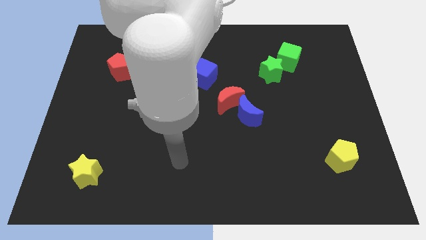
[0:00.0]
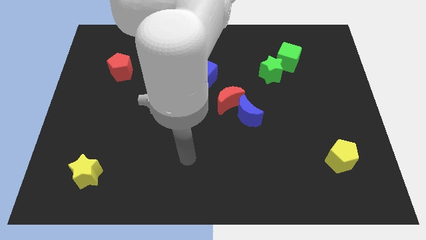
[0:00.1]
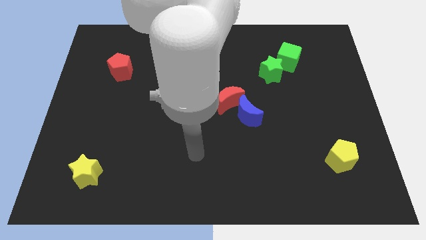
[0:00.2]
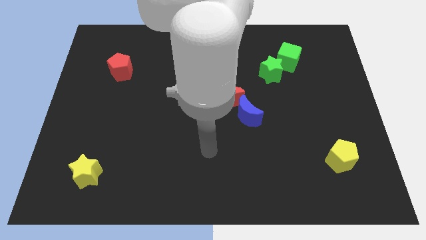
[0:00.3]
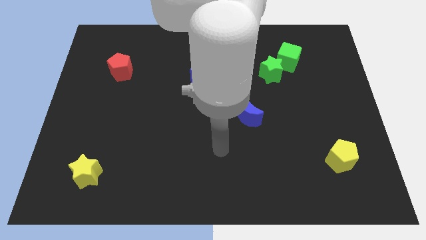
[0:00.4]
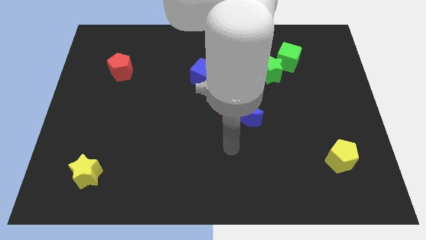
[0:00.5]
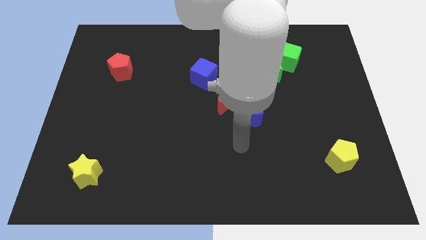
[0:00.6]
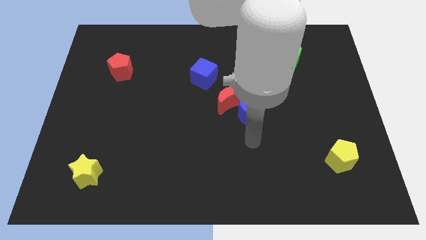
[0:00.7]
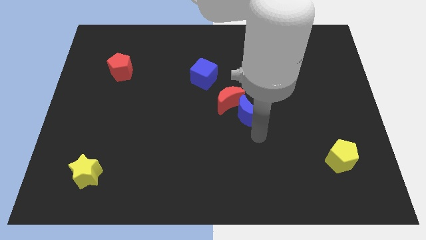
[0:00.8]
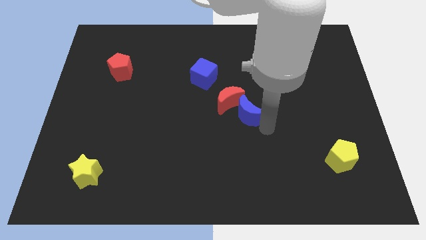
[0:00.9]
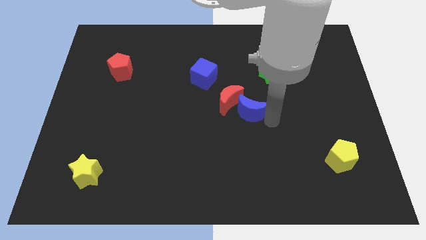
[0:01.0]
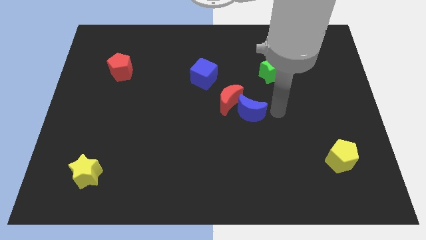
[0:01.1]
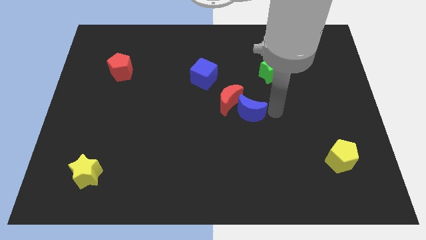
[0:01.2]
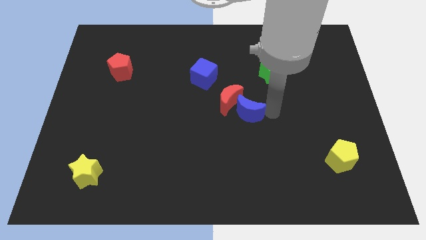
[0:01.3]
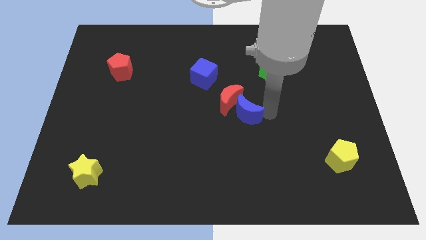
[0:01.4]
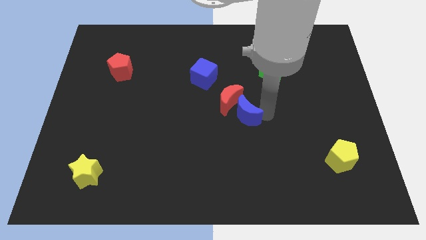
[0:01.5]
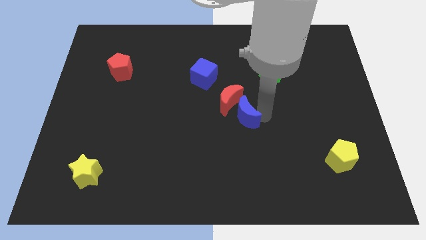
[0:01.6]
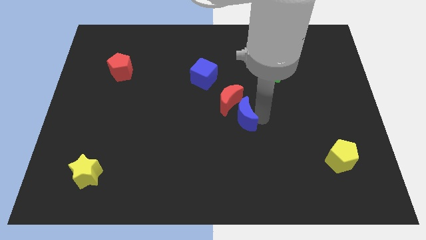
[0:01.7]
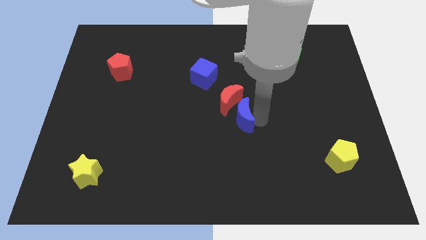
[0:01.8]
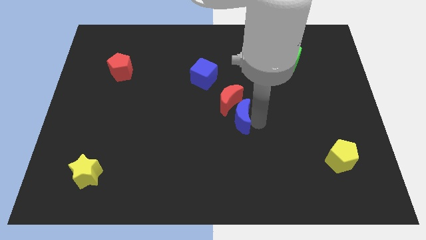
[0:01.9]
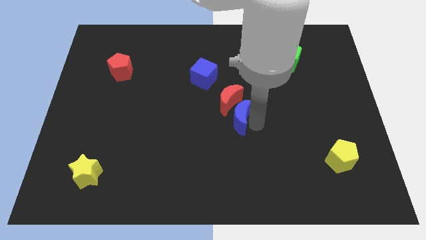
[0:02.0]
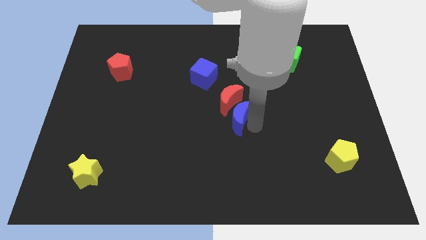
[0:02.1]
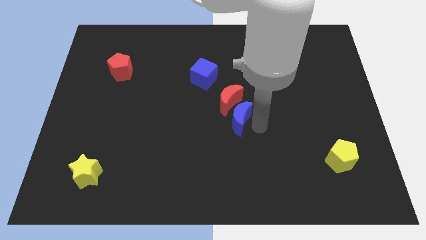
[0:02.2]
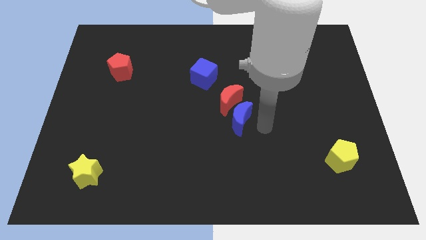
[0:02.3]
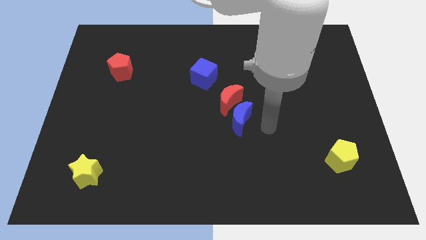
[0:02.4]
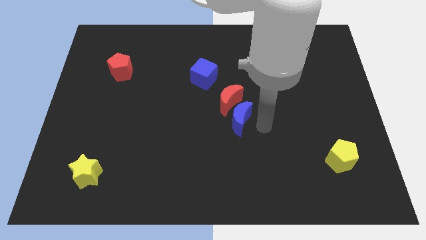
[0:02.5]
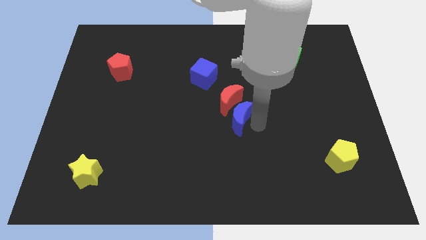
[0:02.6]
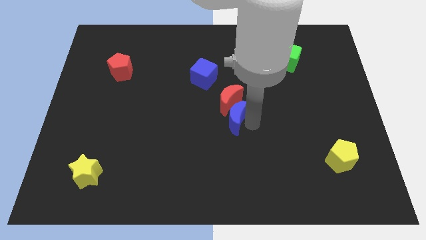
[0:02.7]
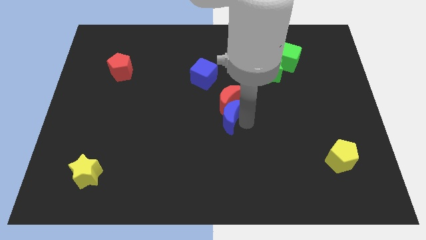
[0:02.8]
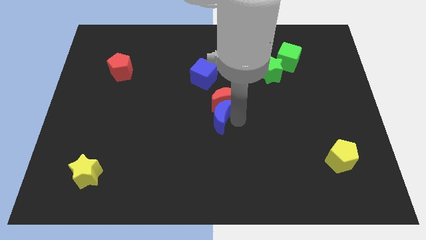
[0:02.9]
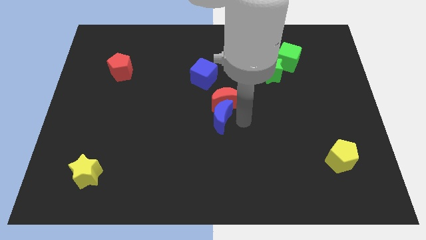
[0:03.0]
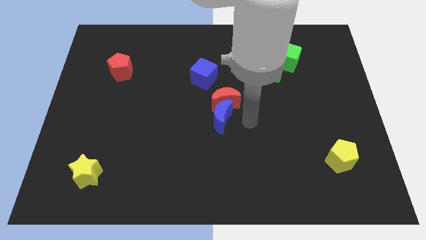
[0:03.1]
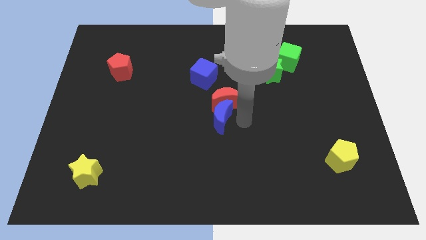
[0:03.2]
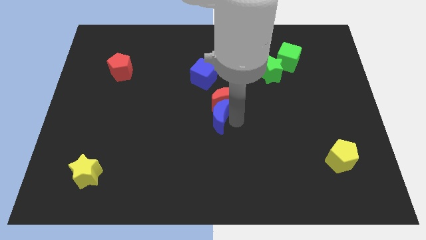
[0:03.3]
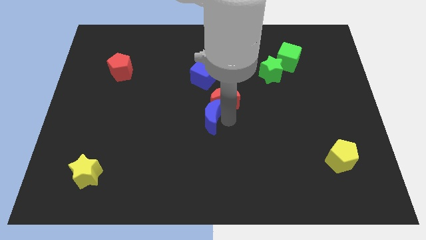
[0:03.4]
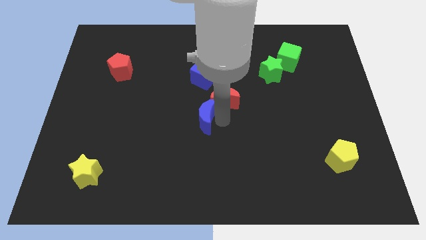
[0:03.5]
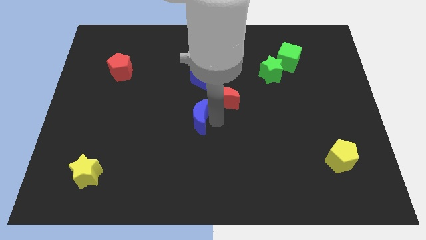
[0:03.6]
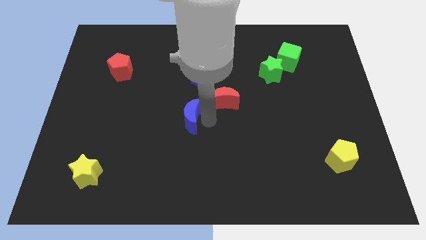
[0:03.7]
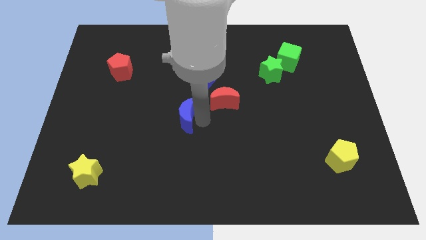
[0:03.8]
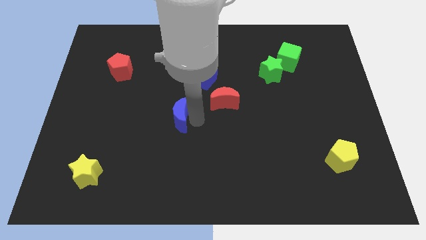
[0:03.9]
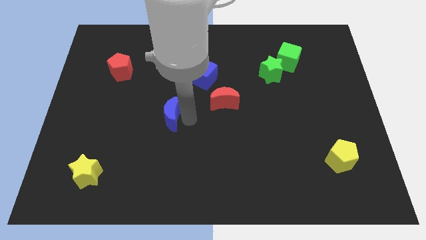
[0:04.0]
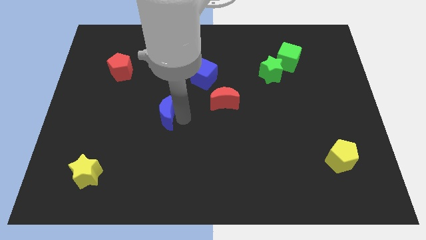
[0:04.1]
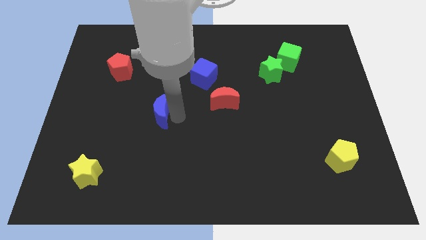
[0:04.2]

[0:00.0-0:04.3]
move the blue moon to the left

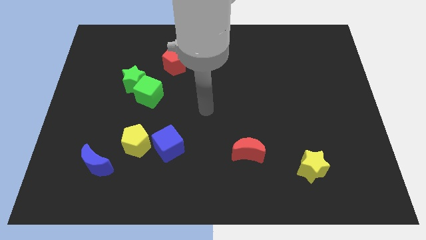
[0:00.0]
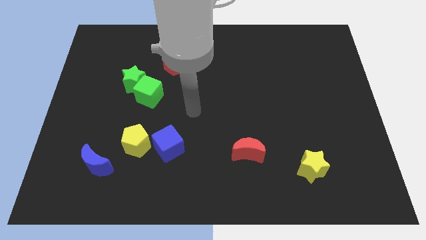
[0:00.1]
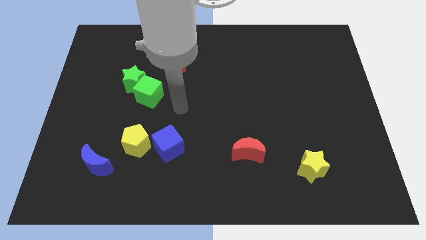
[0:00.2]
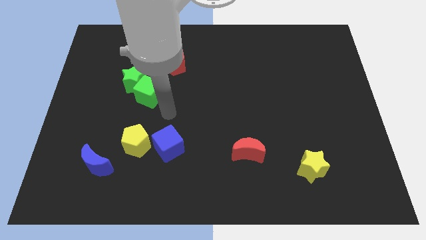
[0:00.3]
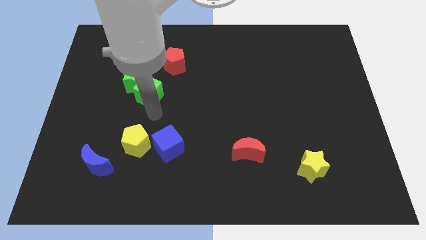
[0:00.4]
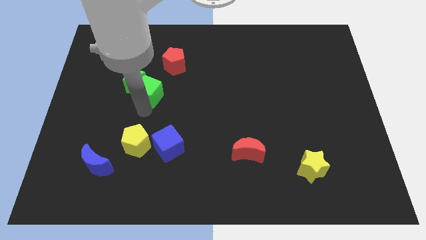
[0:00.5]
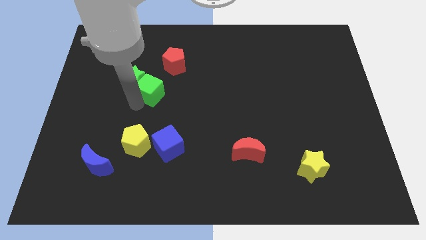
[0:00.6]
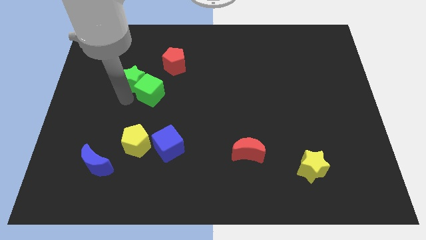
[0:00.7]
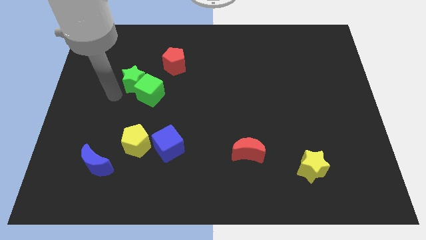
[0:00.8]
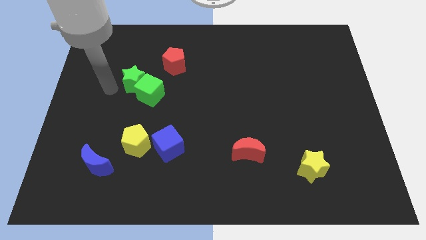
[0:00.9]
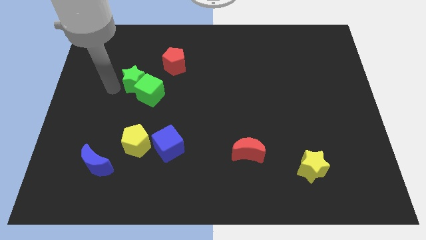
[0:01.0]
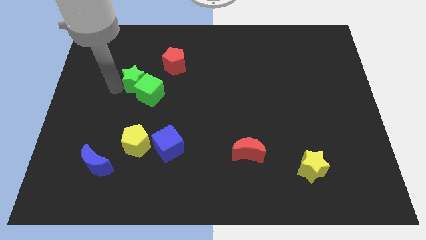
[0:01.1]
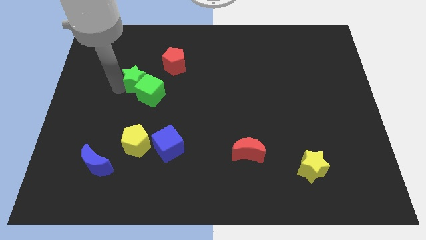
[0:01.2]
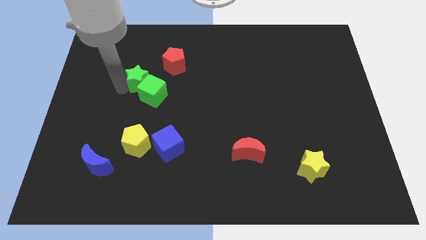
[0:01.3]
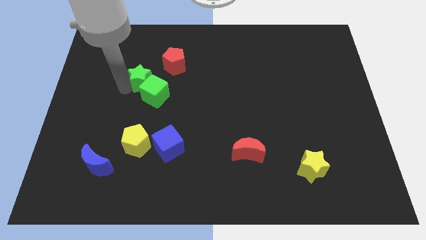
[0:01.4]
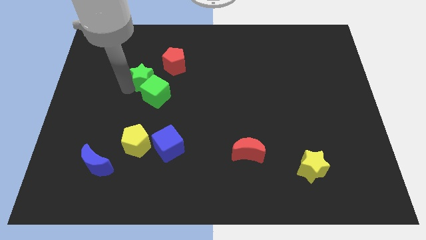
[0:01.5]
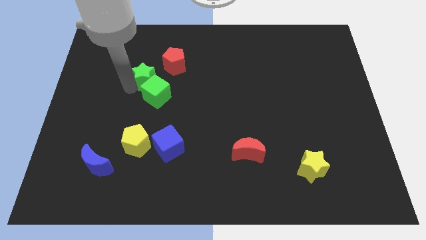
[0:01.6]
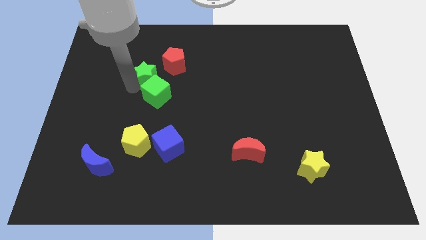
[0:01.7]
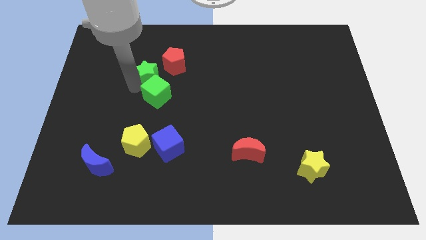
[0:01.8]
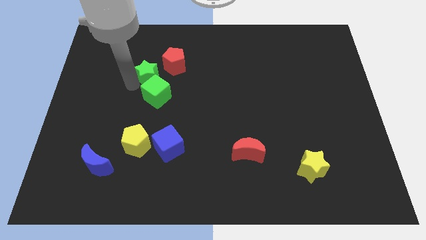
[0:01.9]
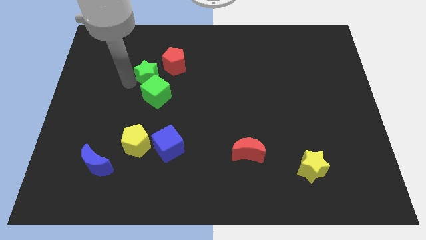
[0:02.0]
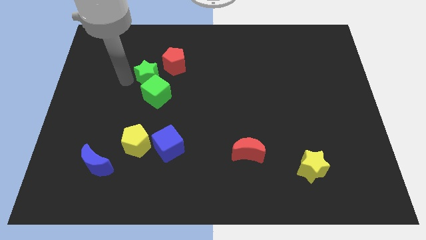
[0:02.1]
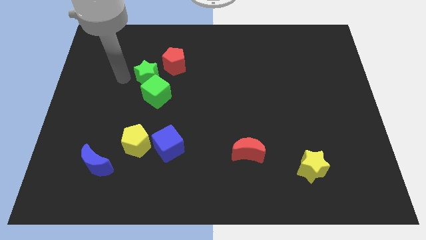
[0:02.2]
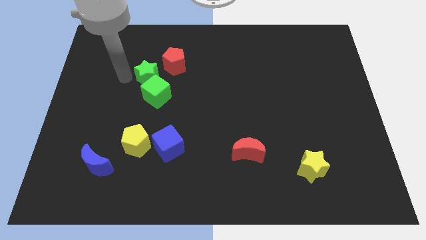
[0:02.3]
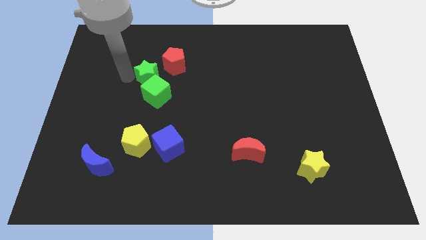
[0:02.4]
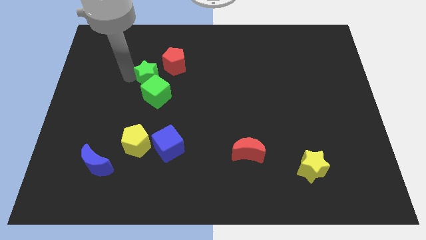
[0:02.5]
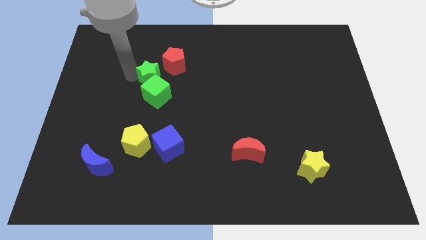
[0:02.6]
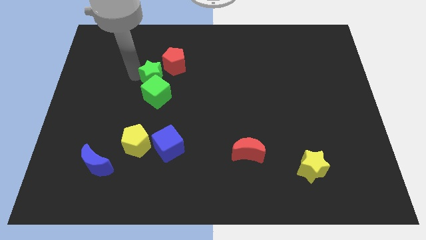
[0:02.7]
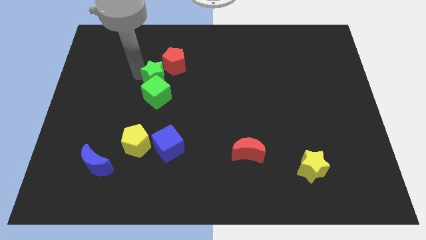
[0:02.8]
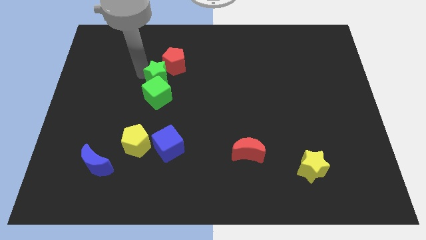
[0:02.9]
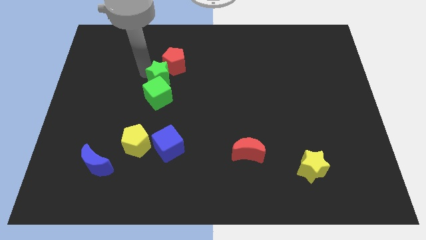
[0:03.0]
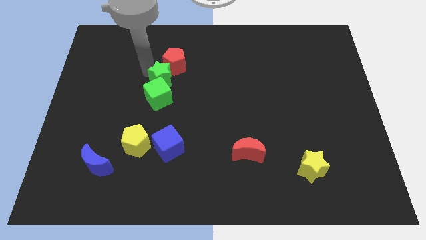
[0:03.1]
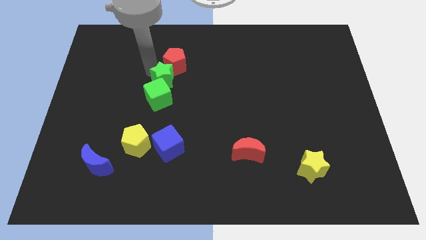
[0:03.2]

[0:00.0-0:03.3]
push the green star to the right slightly

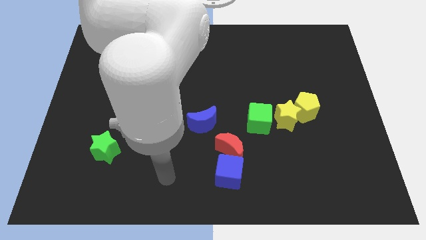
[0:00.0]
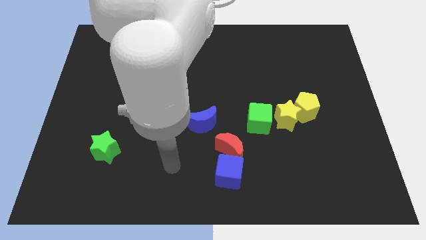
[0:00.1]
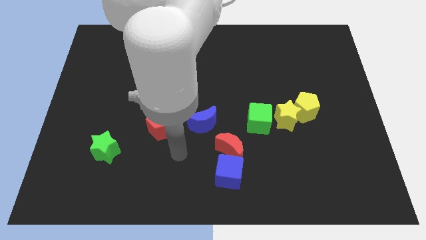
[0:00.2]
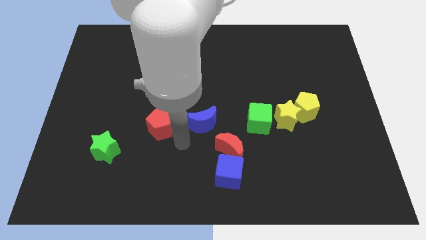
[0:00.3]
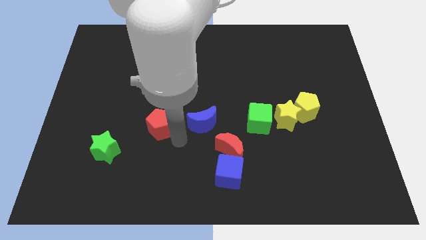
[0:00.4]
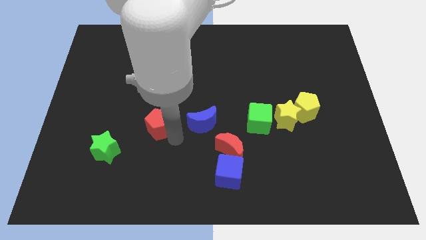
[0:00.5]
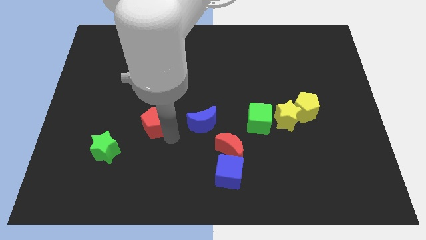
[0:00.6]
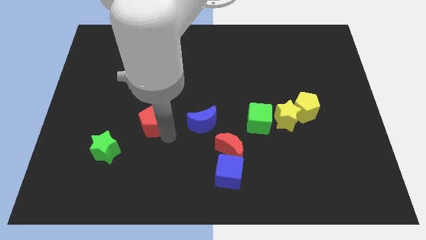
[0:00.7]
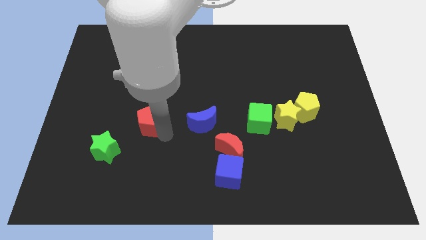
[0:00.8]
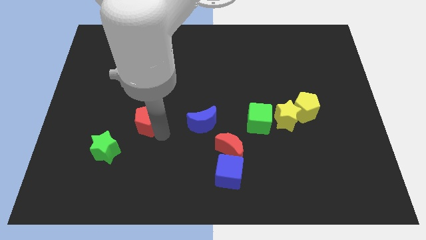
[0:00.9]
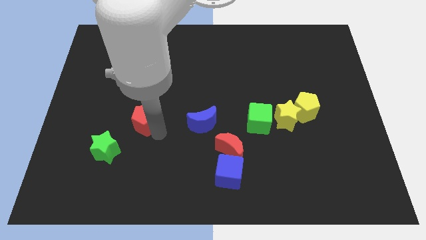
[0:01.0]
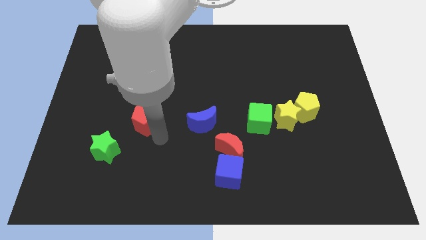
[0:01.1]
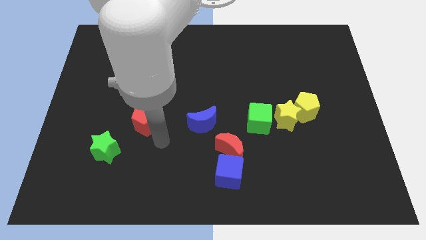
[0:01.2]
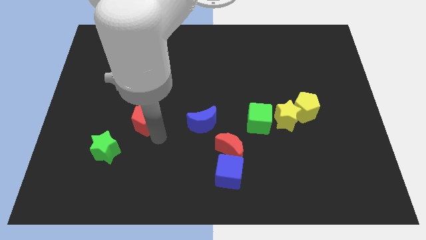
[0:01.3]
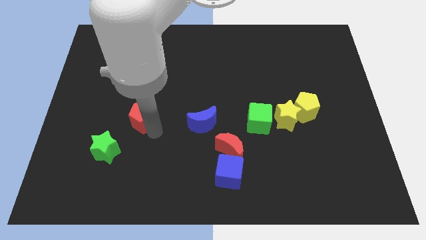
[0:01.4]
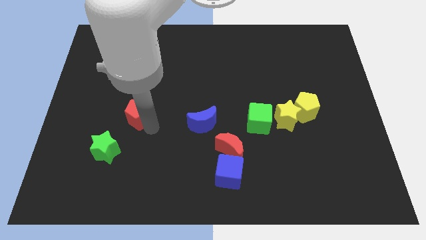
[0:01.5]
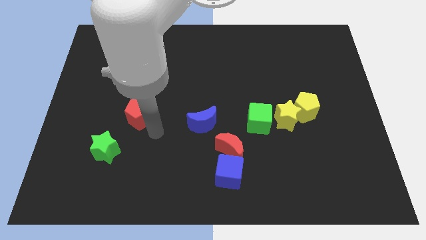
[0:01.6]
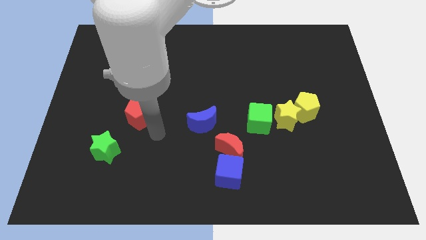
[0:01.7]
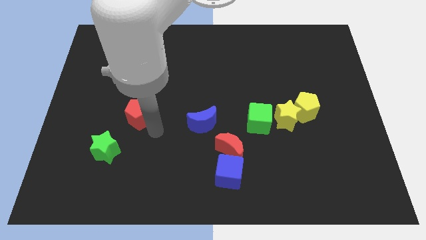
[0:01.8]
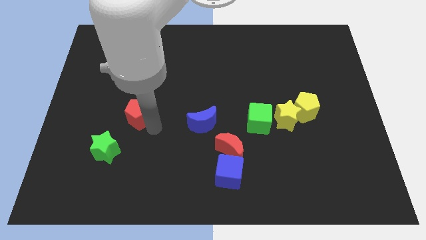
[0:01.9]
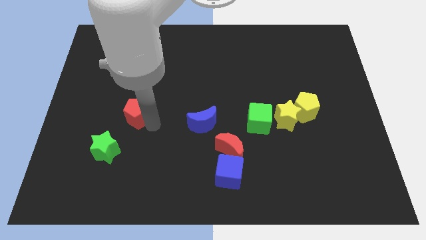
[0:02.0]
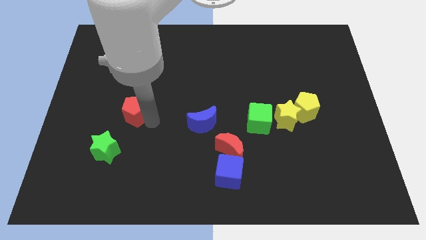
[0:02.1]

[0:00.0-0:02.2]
slightly move the red pentagon upwards and to the left
